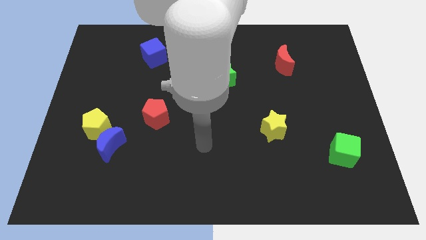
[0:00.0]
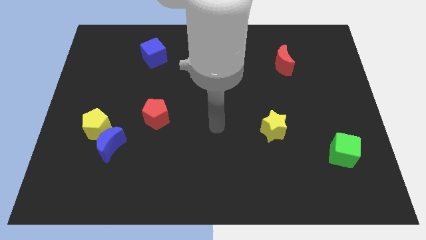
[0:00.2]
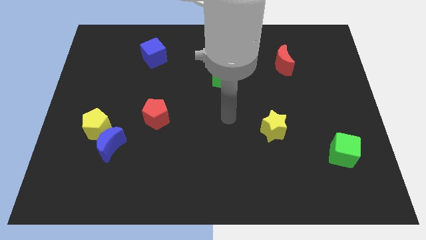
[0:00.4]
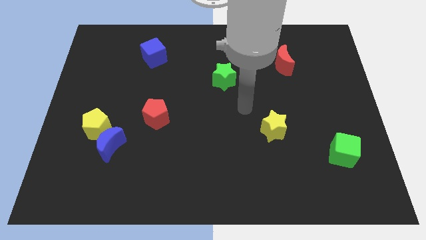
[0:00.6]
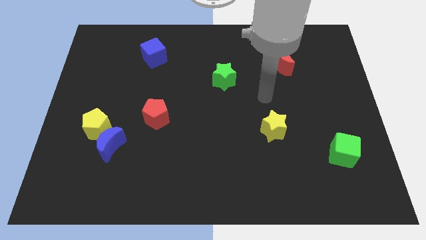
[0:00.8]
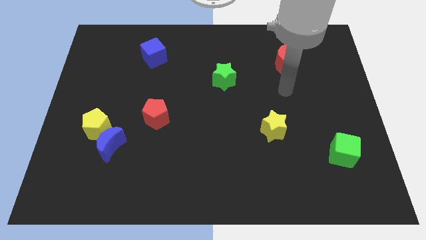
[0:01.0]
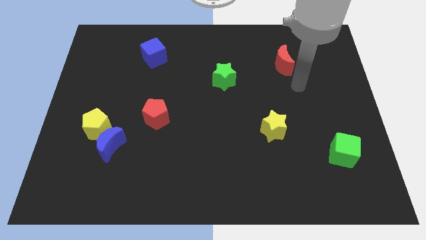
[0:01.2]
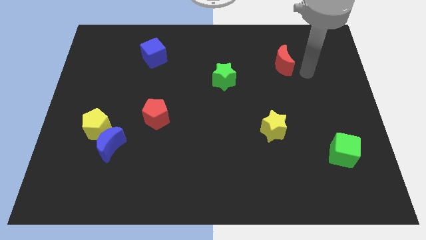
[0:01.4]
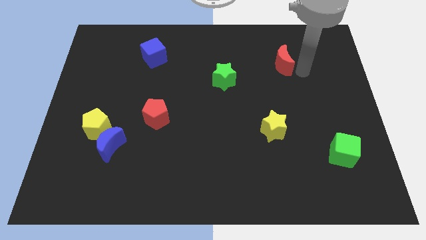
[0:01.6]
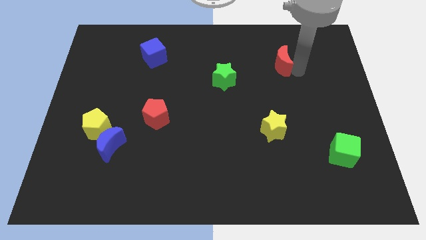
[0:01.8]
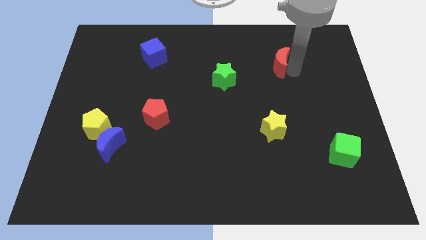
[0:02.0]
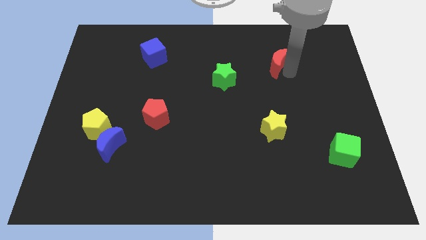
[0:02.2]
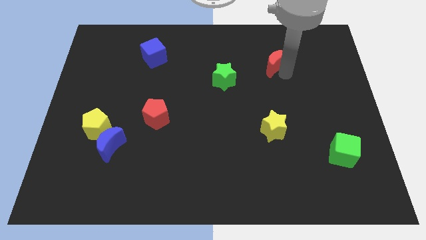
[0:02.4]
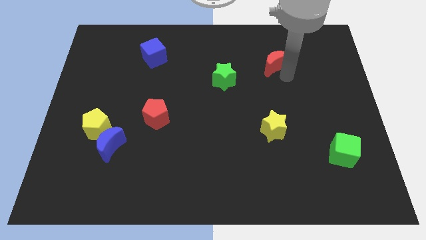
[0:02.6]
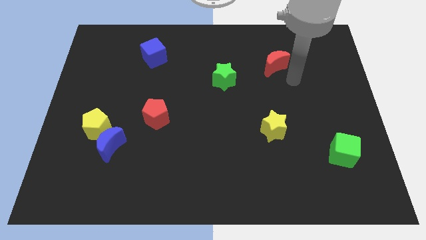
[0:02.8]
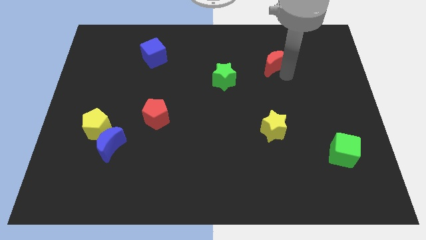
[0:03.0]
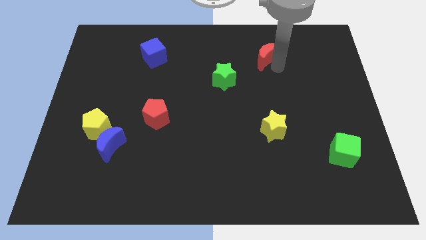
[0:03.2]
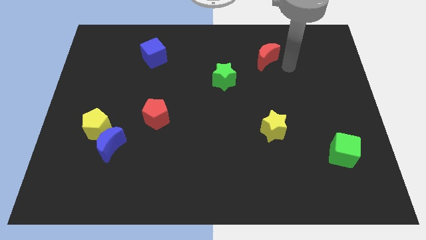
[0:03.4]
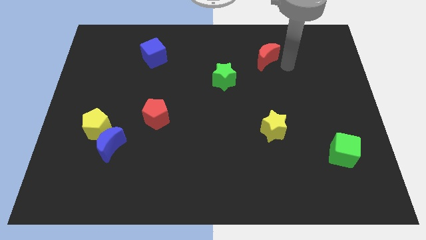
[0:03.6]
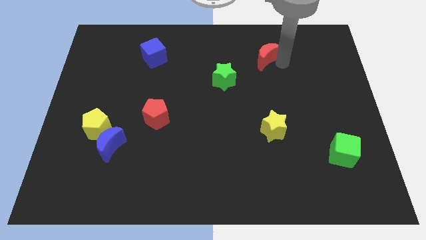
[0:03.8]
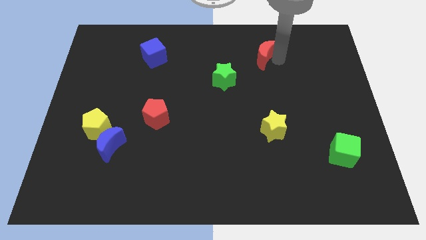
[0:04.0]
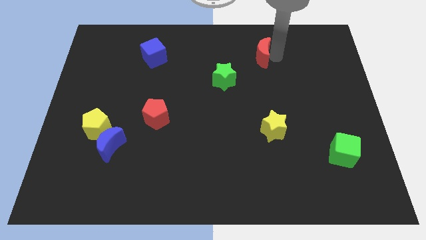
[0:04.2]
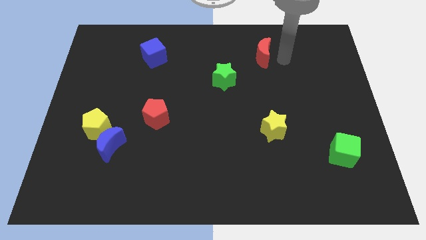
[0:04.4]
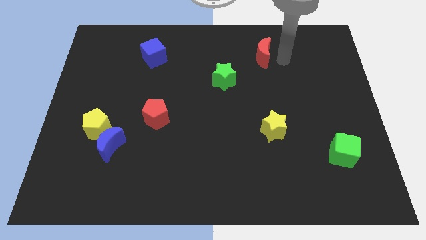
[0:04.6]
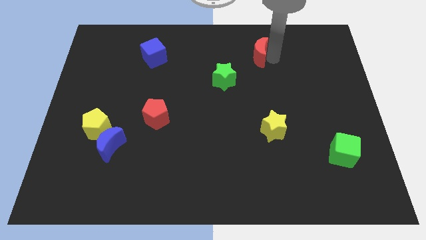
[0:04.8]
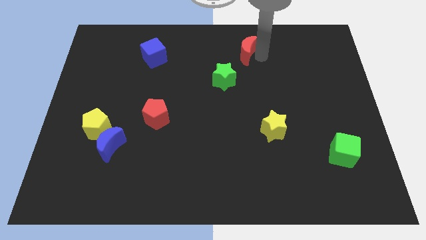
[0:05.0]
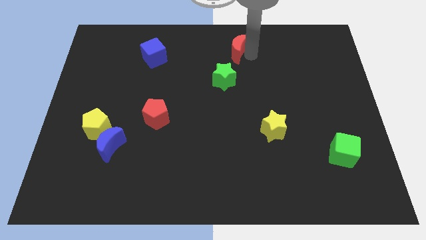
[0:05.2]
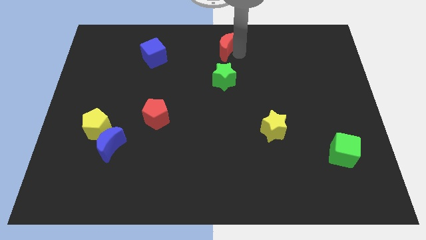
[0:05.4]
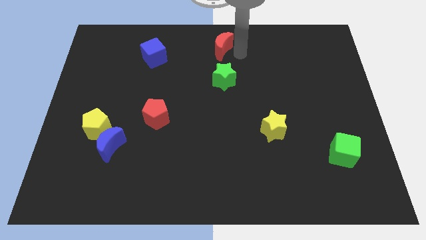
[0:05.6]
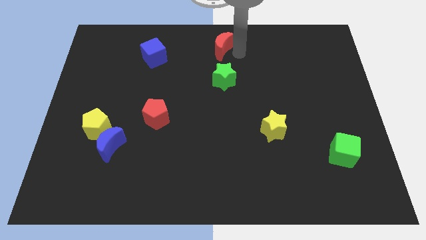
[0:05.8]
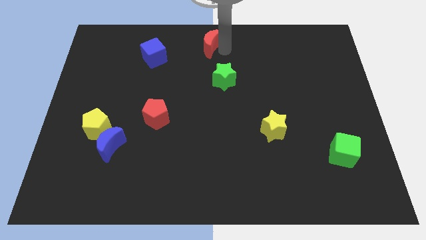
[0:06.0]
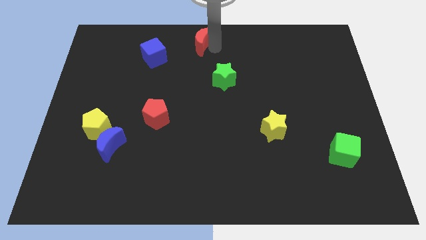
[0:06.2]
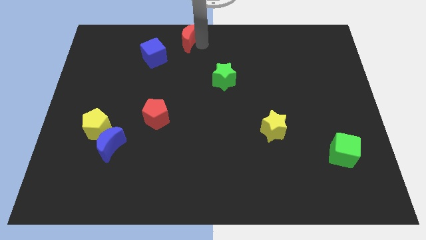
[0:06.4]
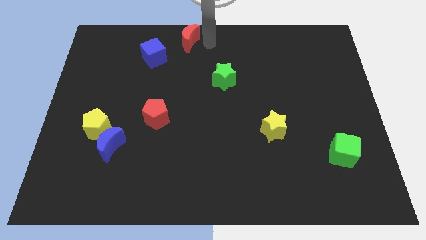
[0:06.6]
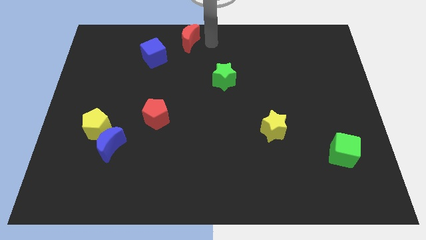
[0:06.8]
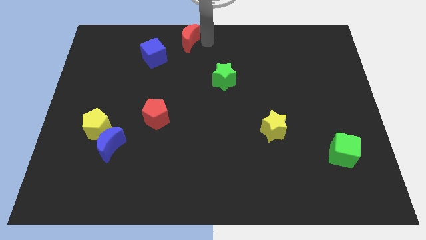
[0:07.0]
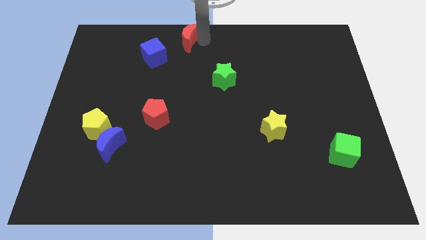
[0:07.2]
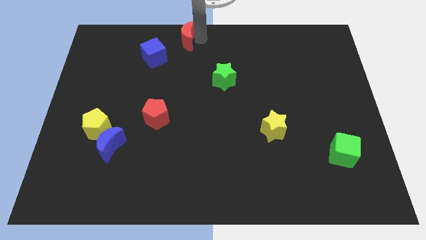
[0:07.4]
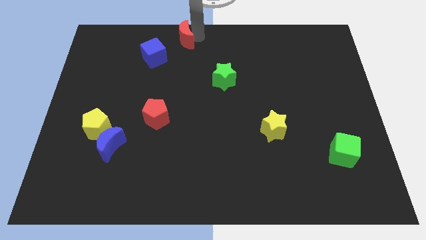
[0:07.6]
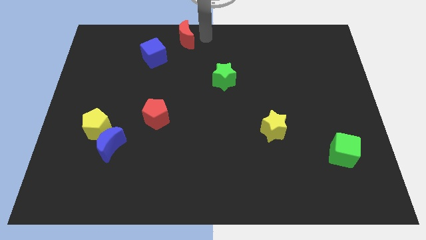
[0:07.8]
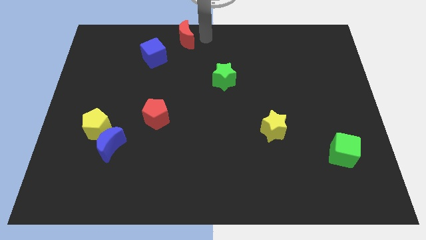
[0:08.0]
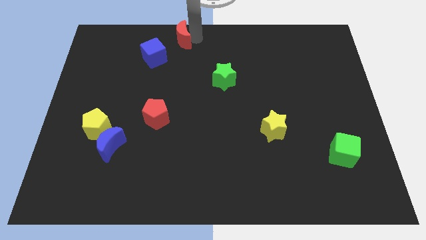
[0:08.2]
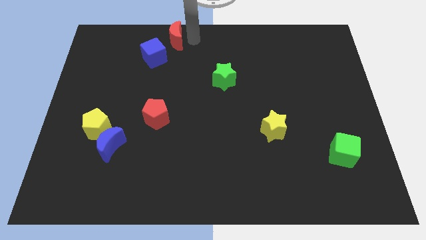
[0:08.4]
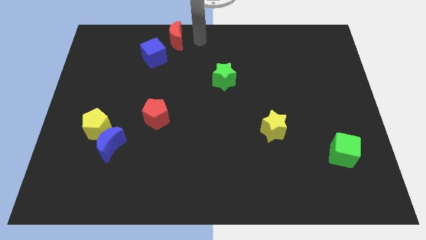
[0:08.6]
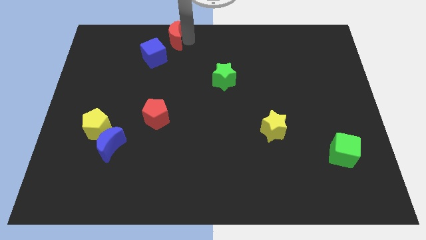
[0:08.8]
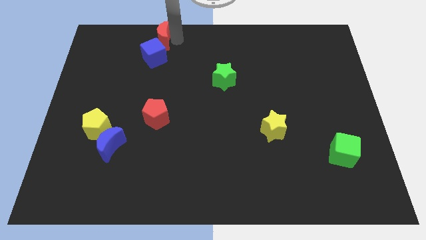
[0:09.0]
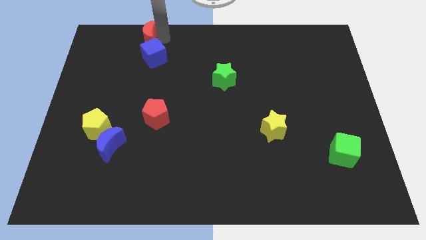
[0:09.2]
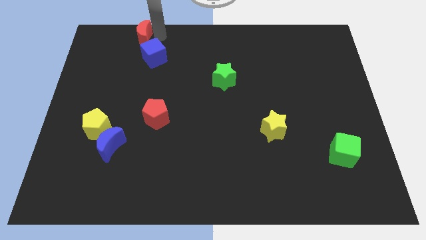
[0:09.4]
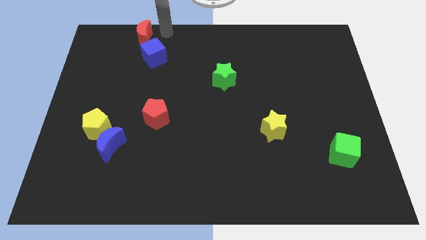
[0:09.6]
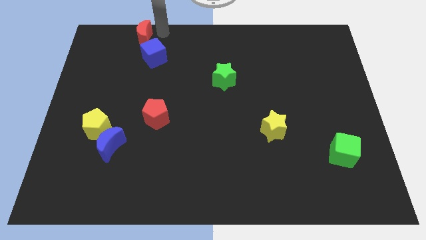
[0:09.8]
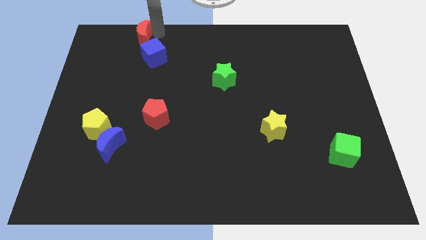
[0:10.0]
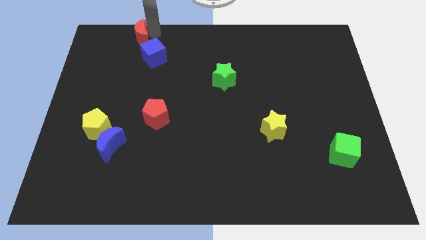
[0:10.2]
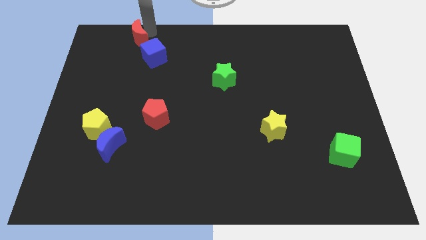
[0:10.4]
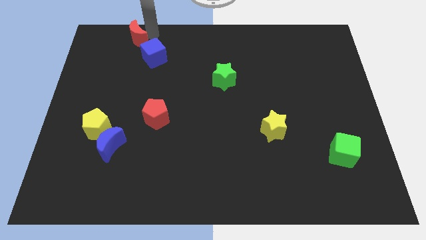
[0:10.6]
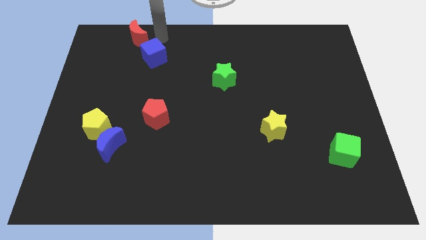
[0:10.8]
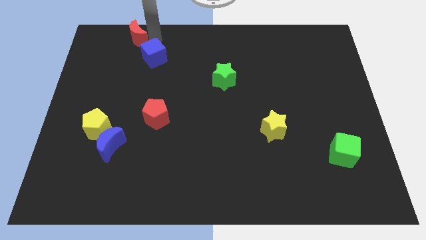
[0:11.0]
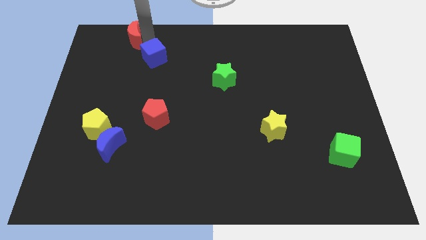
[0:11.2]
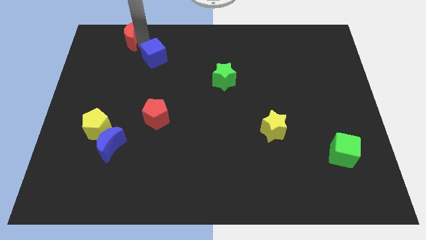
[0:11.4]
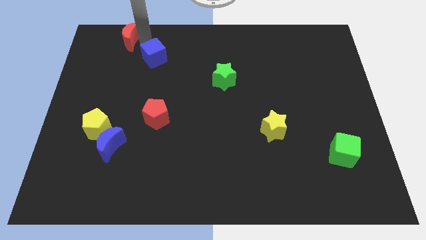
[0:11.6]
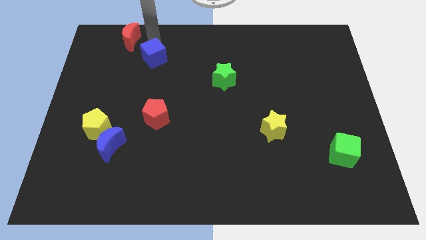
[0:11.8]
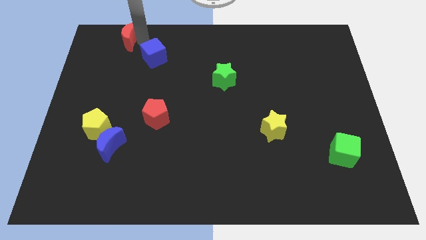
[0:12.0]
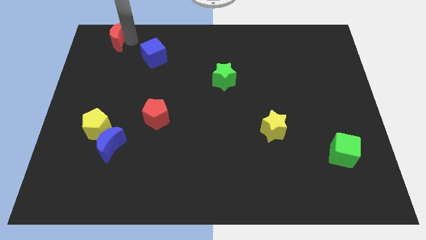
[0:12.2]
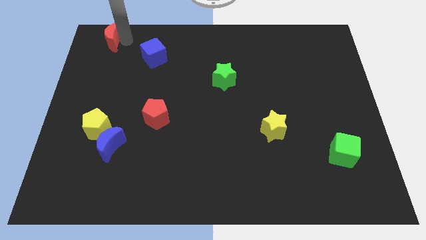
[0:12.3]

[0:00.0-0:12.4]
move the red moon to the upper left corner
